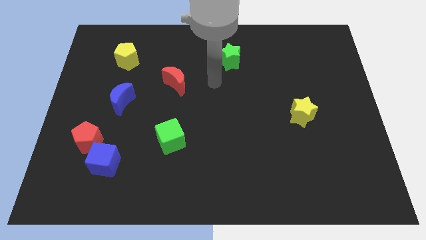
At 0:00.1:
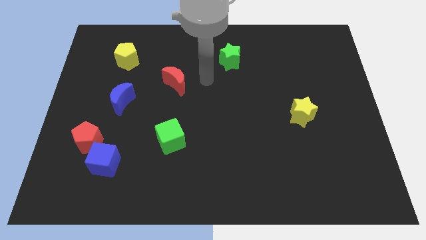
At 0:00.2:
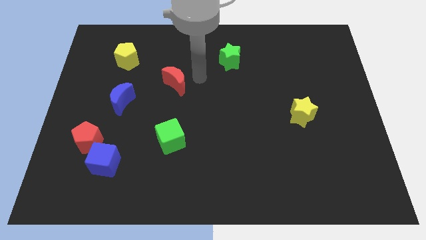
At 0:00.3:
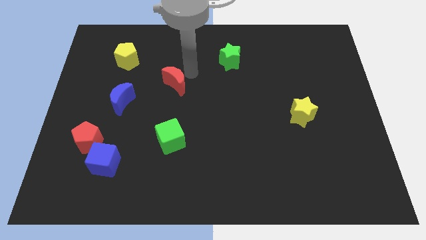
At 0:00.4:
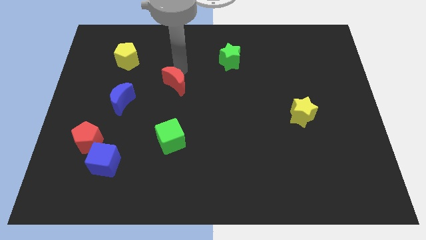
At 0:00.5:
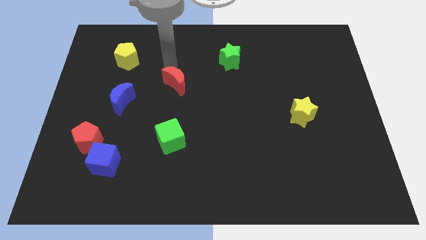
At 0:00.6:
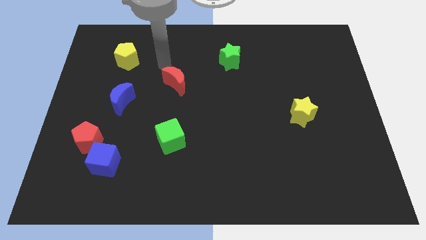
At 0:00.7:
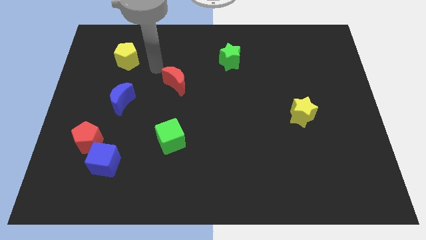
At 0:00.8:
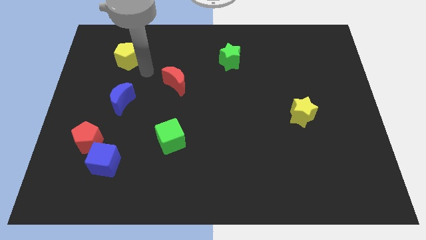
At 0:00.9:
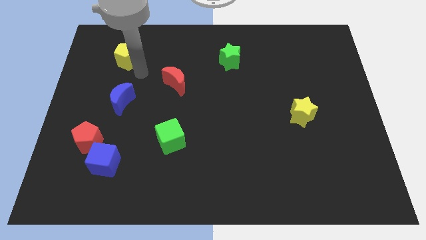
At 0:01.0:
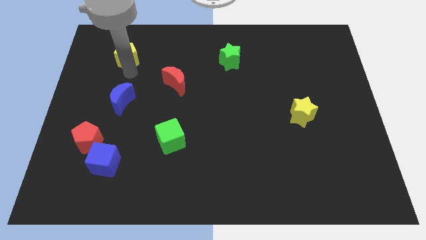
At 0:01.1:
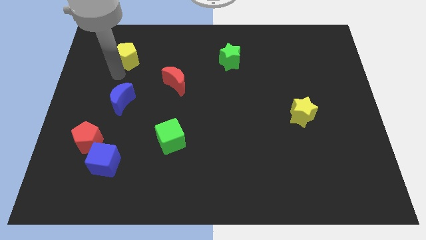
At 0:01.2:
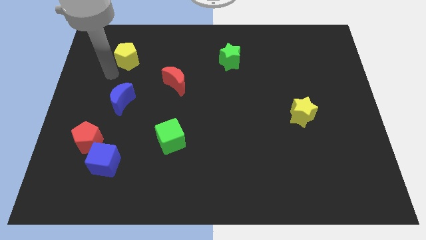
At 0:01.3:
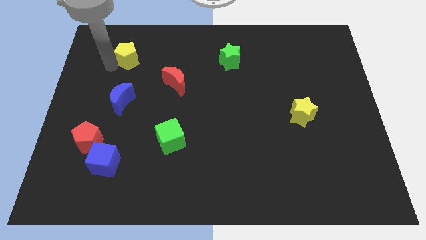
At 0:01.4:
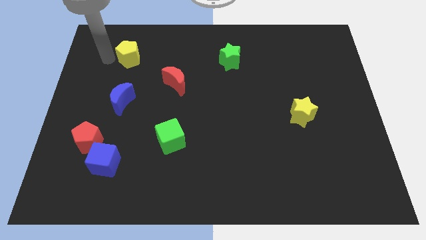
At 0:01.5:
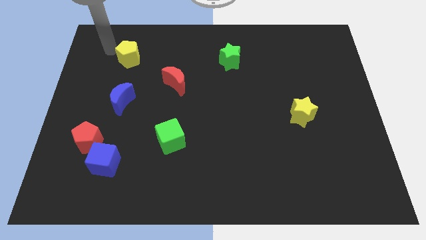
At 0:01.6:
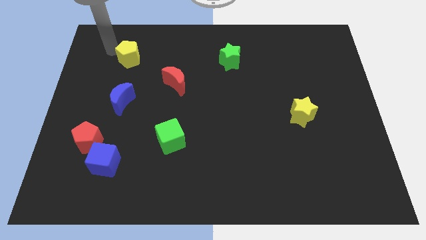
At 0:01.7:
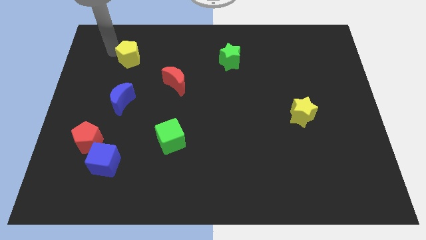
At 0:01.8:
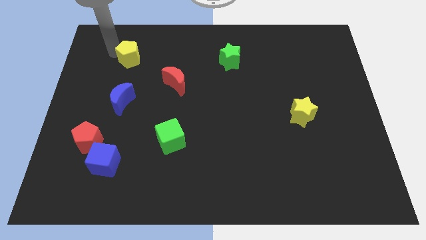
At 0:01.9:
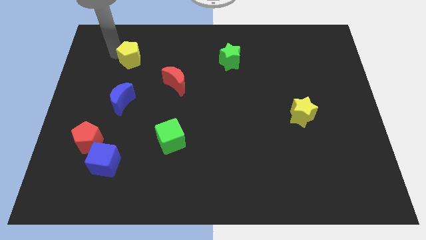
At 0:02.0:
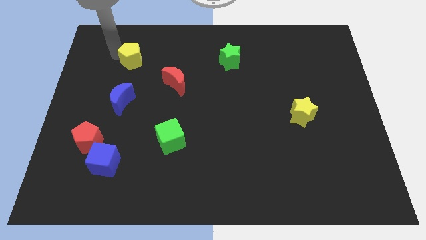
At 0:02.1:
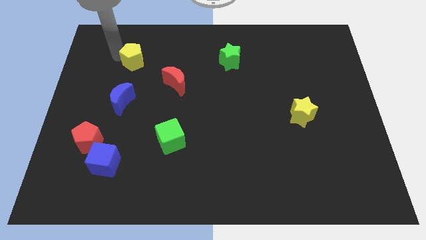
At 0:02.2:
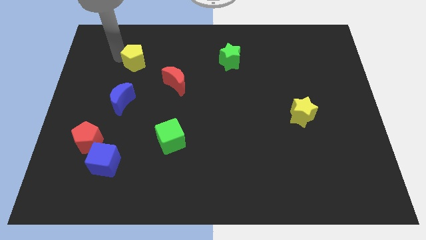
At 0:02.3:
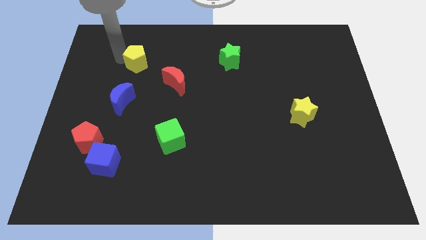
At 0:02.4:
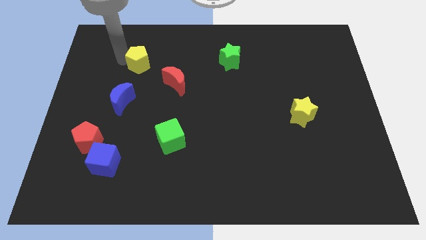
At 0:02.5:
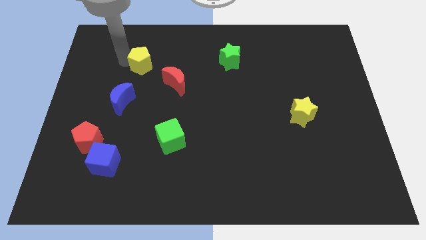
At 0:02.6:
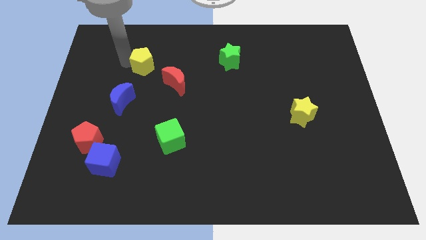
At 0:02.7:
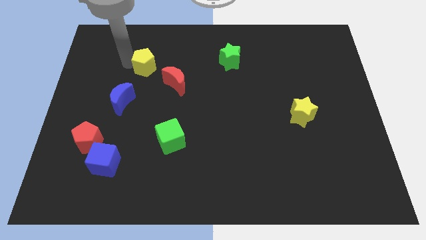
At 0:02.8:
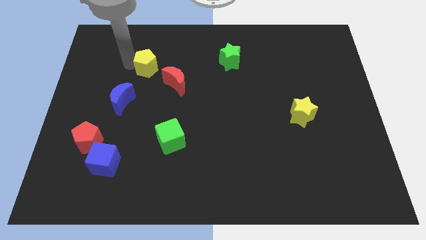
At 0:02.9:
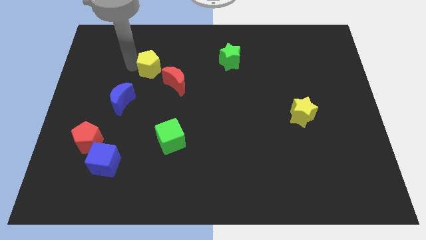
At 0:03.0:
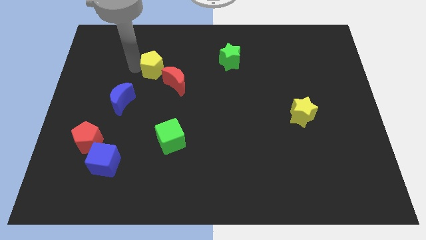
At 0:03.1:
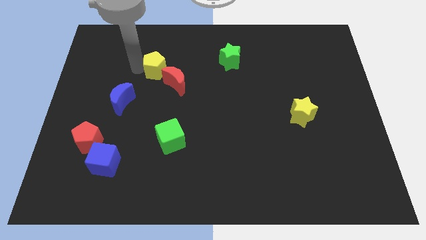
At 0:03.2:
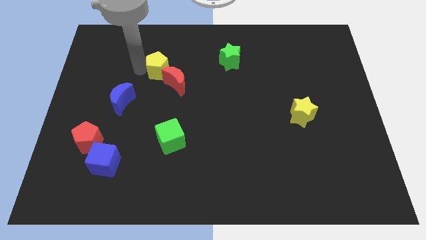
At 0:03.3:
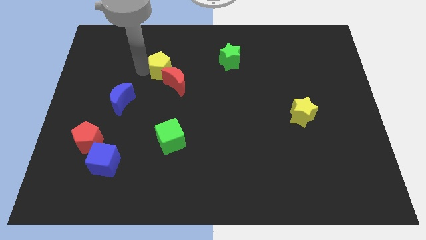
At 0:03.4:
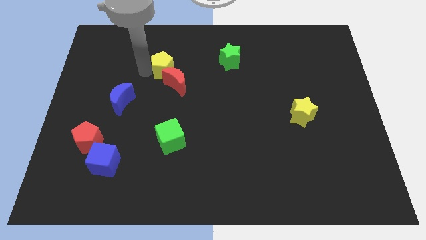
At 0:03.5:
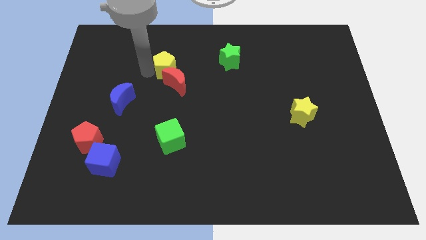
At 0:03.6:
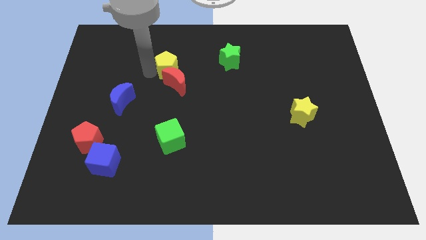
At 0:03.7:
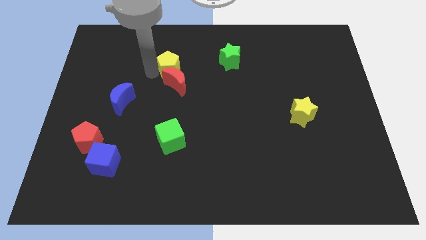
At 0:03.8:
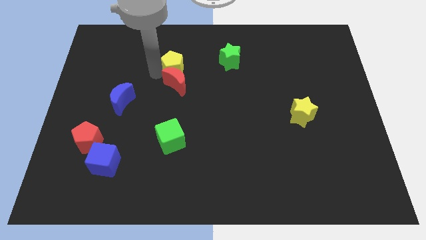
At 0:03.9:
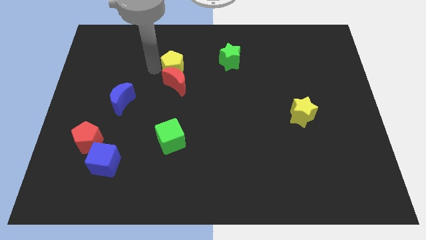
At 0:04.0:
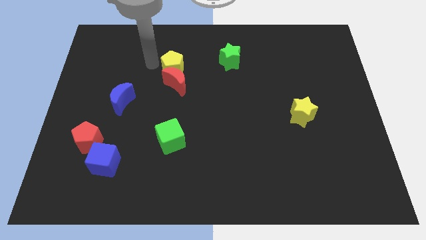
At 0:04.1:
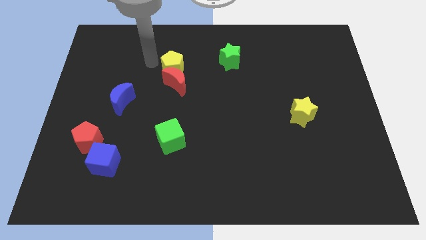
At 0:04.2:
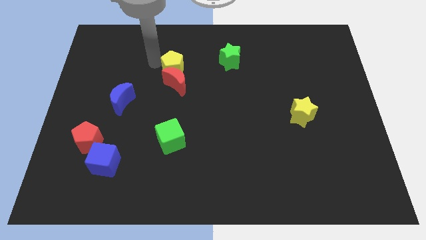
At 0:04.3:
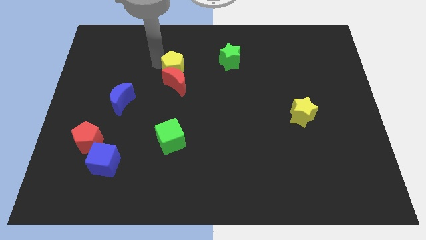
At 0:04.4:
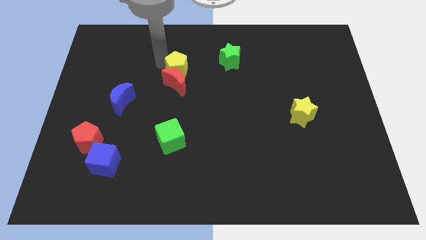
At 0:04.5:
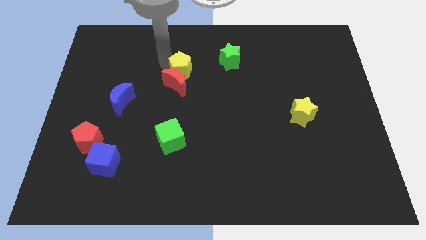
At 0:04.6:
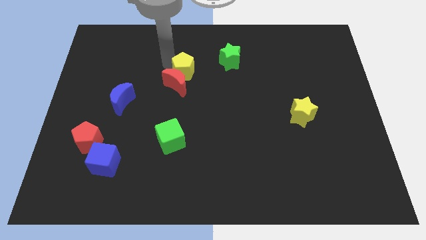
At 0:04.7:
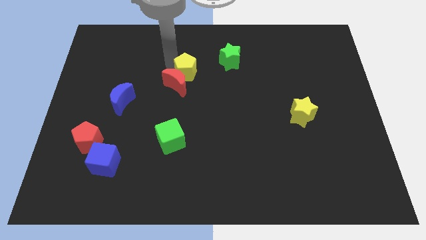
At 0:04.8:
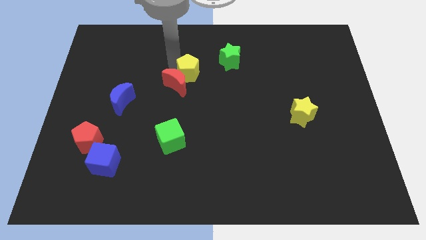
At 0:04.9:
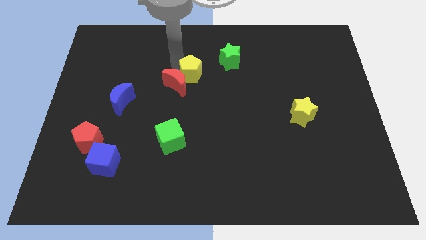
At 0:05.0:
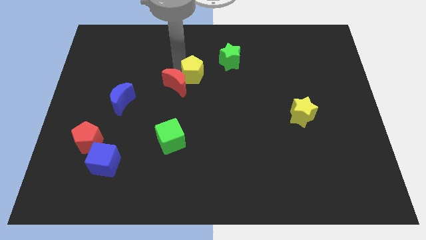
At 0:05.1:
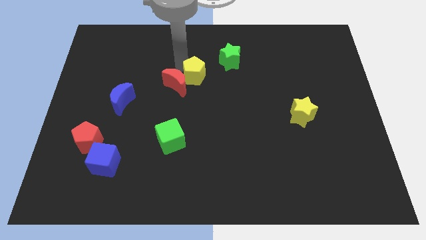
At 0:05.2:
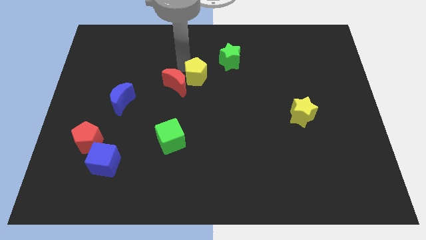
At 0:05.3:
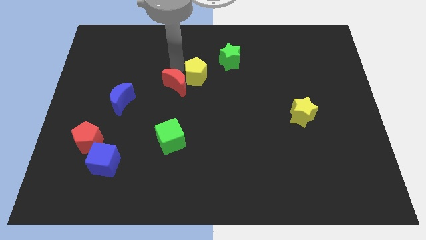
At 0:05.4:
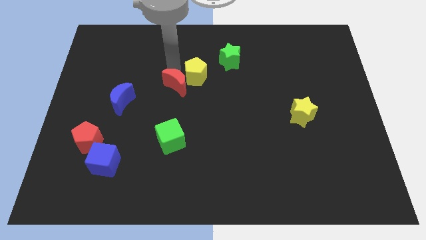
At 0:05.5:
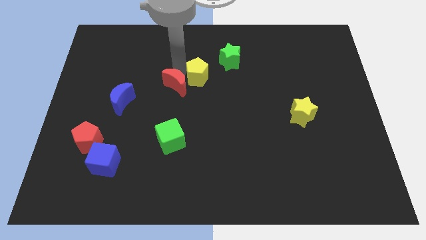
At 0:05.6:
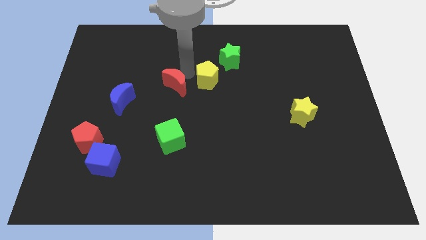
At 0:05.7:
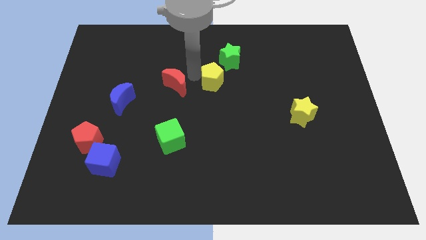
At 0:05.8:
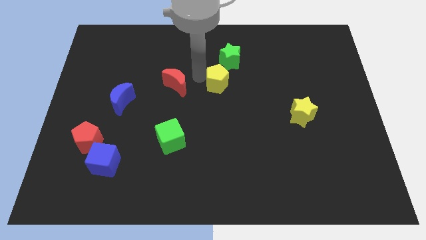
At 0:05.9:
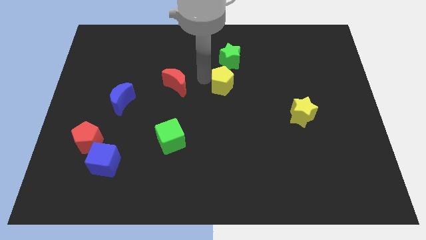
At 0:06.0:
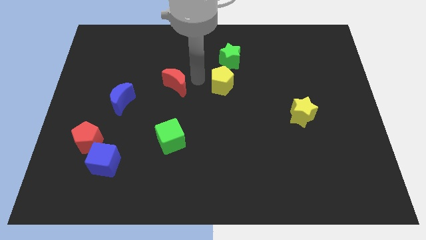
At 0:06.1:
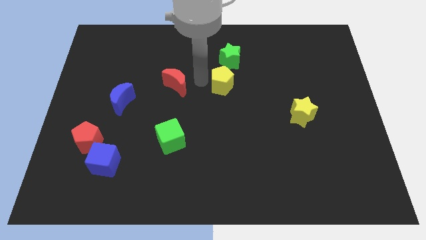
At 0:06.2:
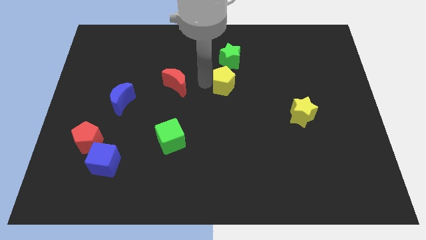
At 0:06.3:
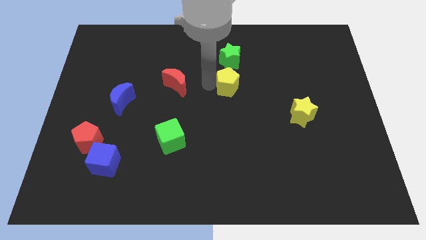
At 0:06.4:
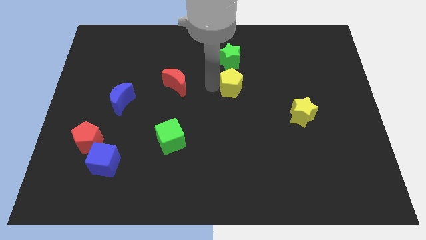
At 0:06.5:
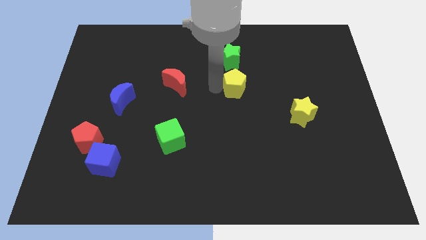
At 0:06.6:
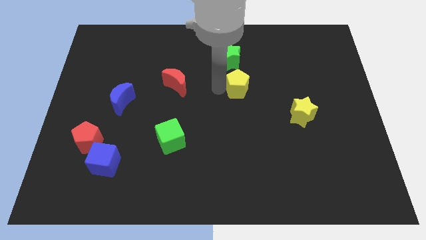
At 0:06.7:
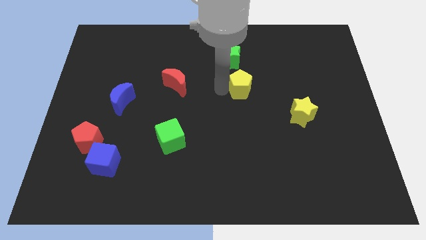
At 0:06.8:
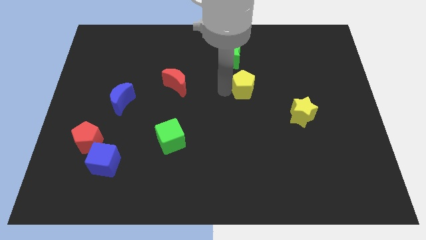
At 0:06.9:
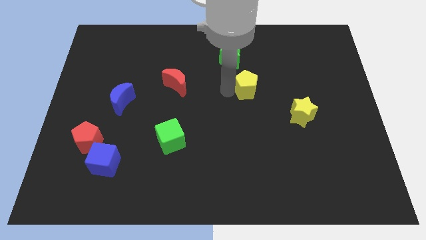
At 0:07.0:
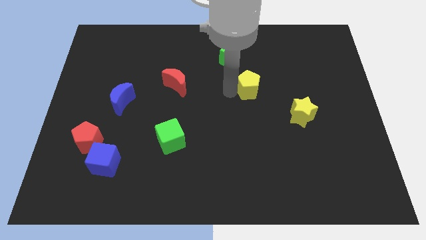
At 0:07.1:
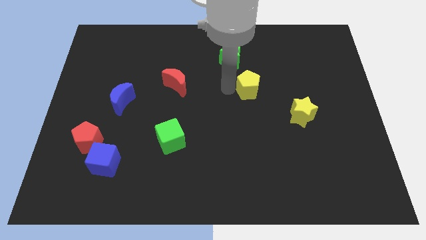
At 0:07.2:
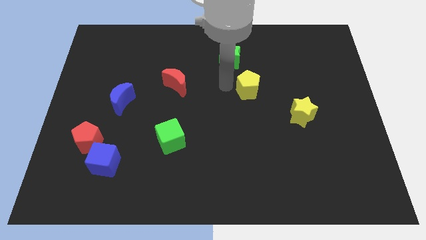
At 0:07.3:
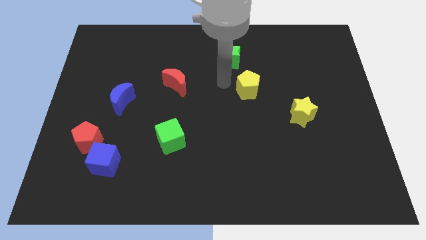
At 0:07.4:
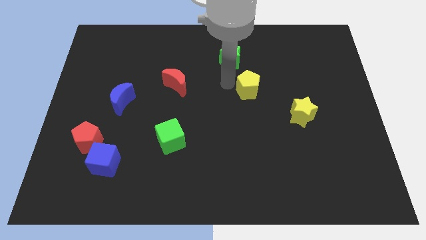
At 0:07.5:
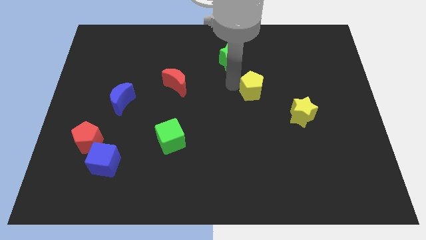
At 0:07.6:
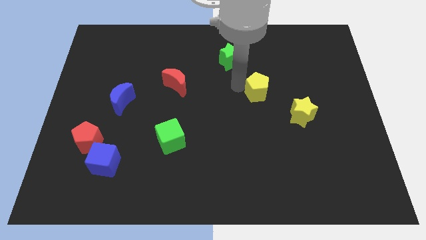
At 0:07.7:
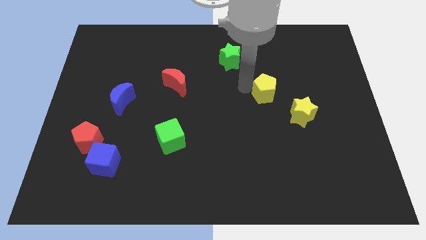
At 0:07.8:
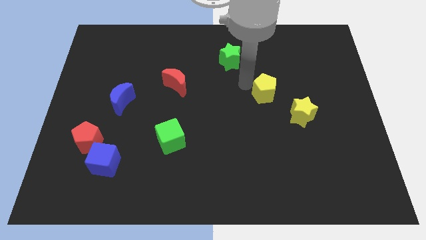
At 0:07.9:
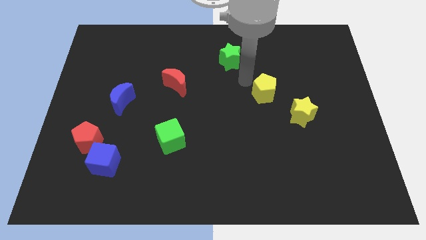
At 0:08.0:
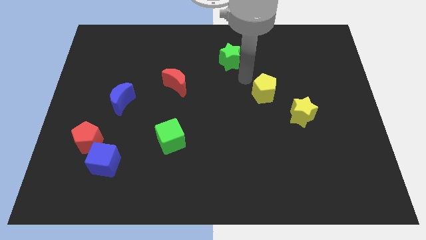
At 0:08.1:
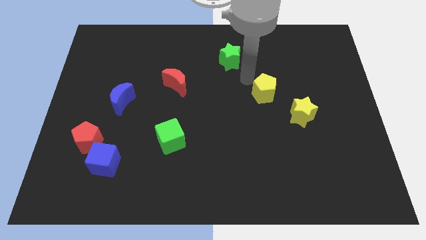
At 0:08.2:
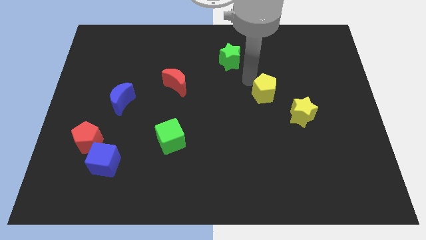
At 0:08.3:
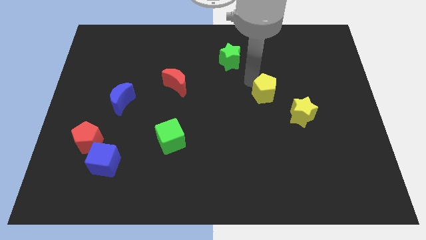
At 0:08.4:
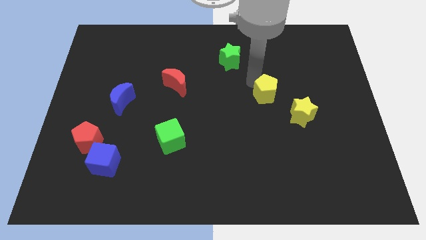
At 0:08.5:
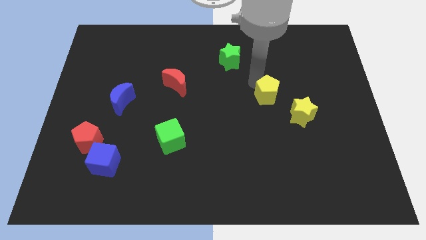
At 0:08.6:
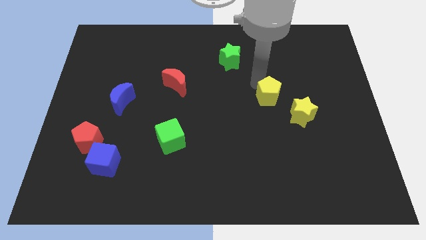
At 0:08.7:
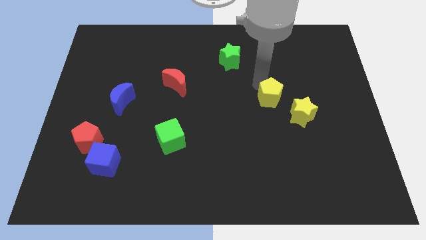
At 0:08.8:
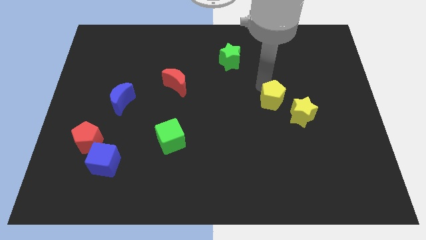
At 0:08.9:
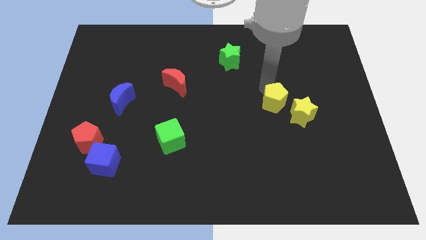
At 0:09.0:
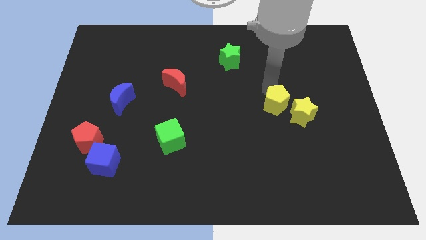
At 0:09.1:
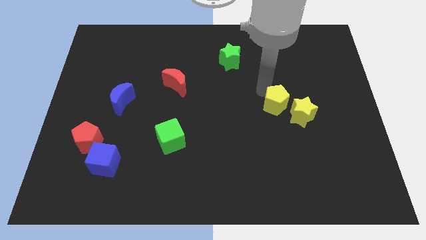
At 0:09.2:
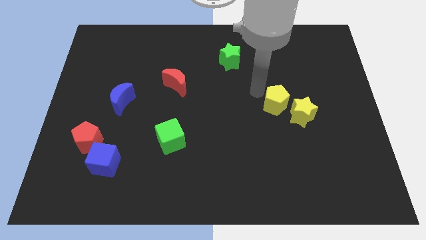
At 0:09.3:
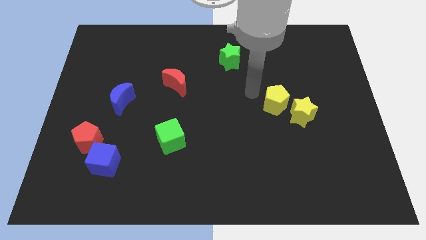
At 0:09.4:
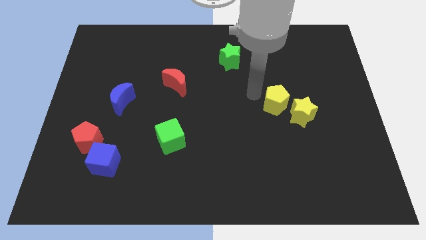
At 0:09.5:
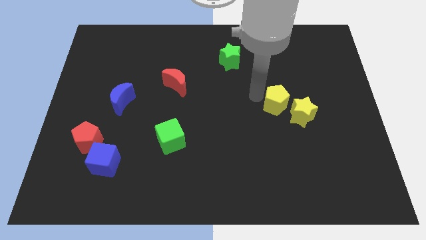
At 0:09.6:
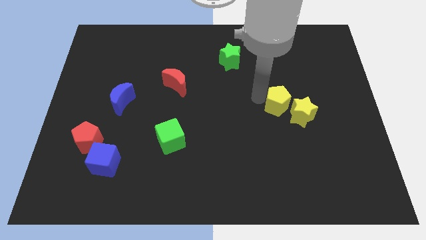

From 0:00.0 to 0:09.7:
put the yellow pentagon close to the yellow star
